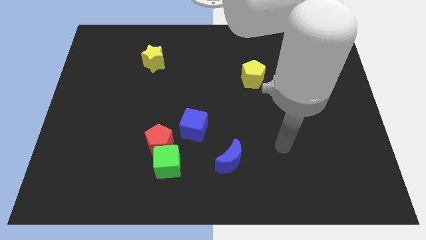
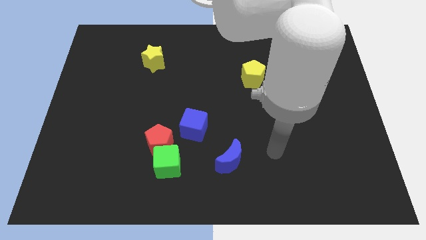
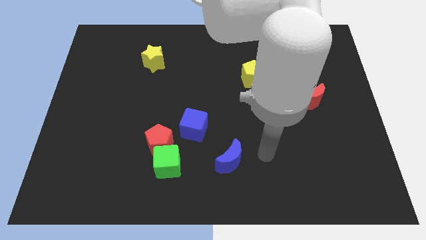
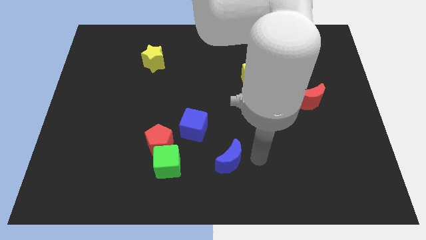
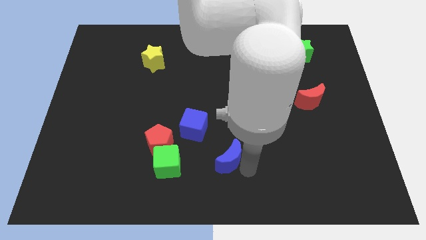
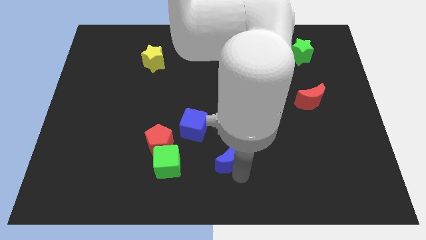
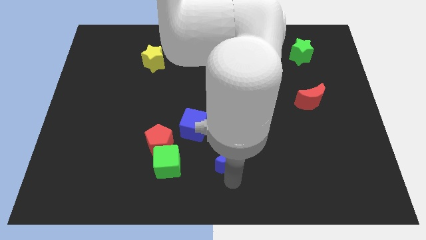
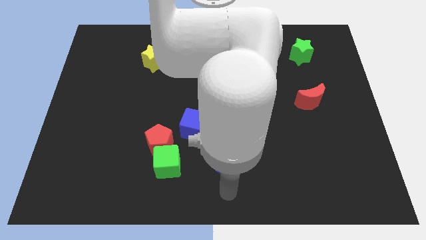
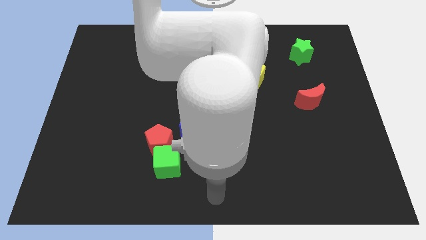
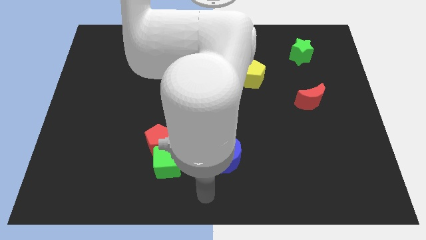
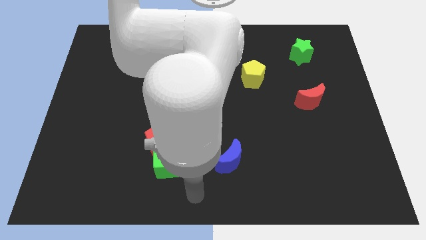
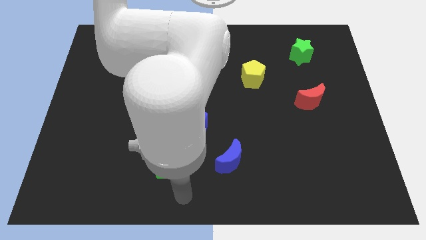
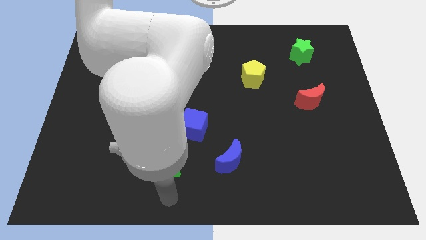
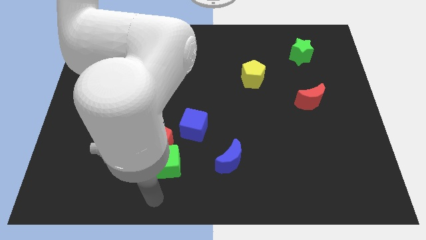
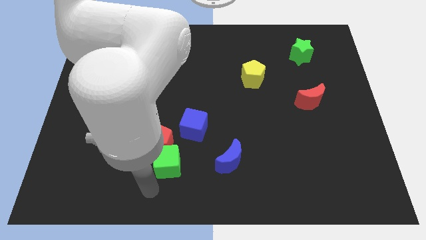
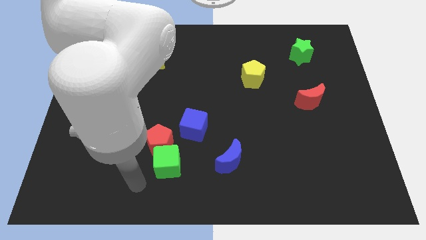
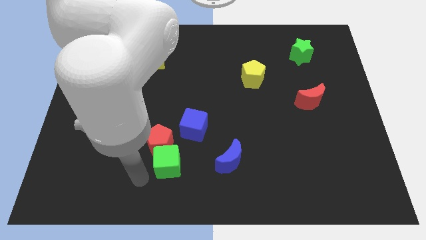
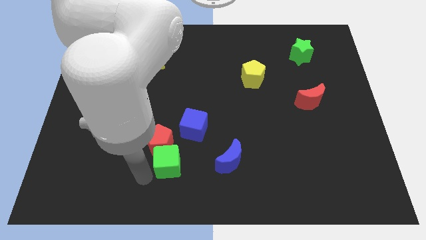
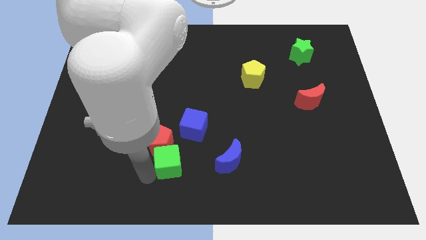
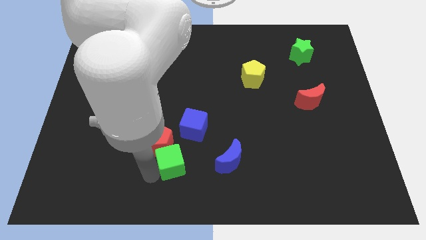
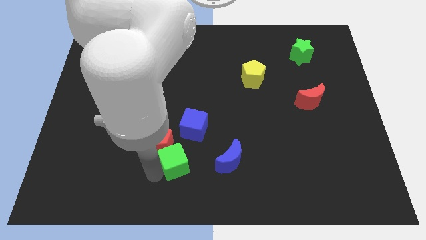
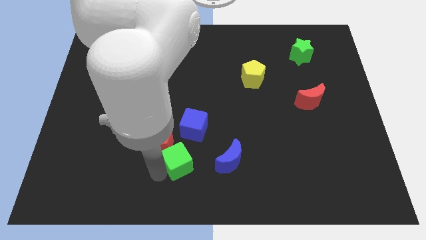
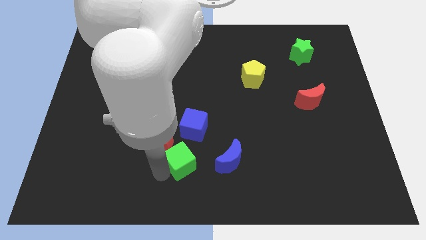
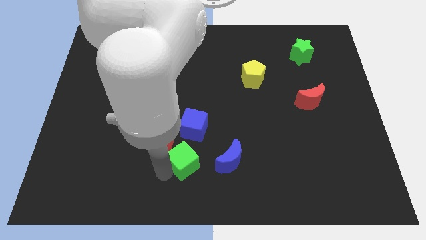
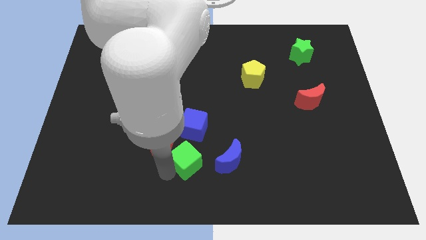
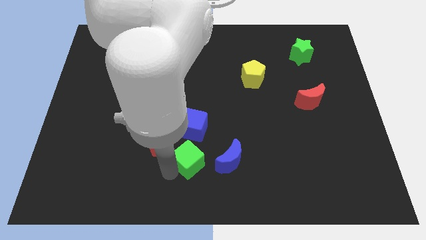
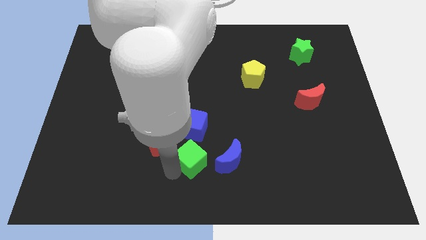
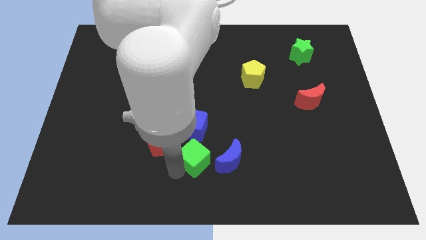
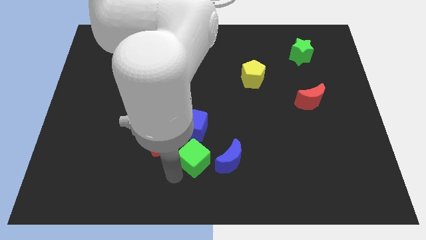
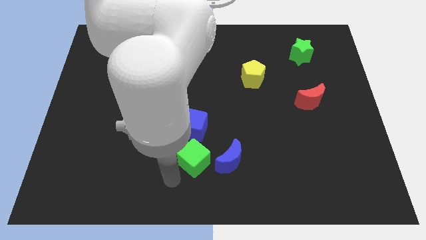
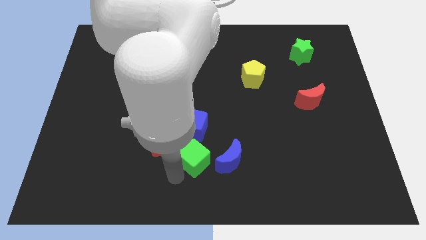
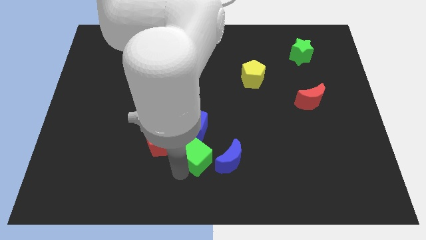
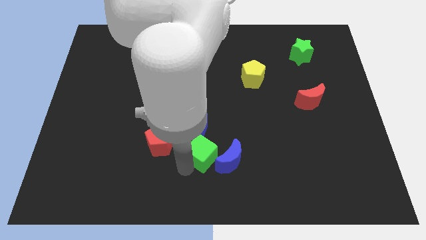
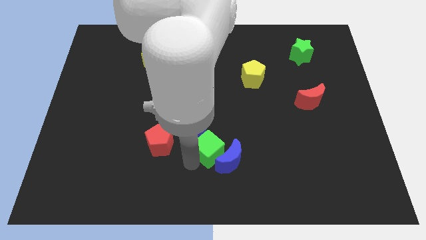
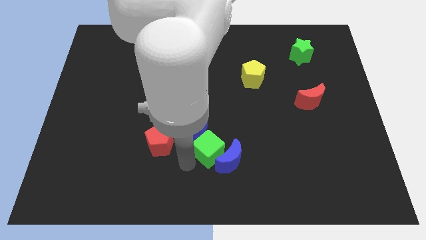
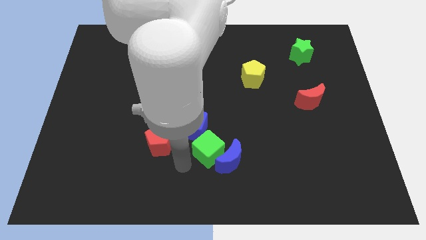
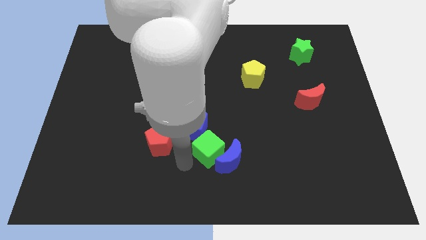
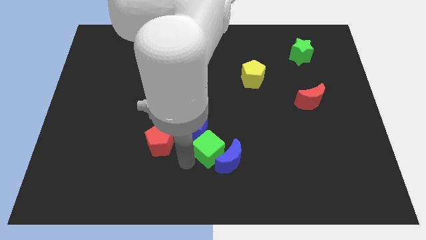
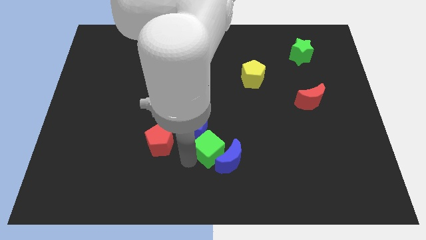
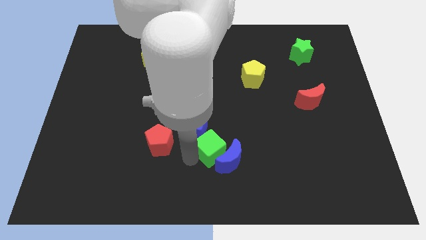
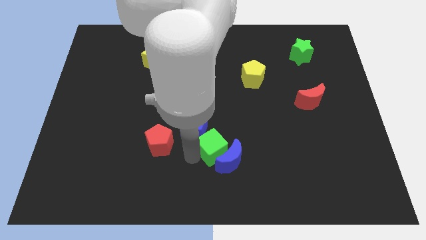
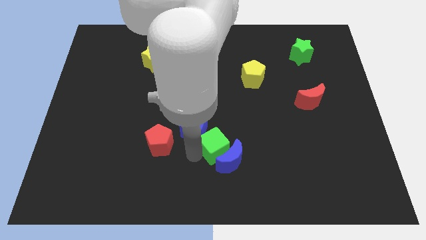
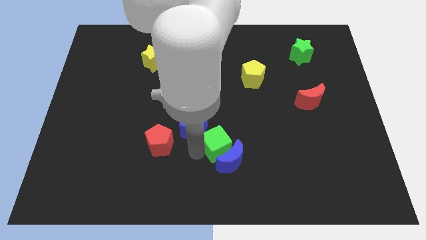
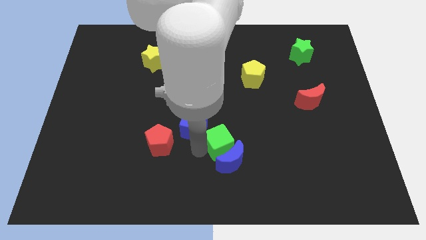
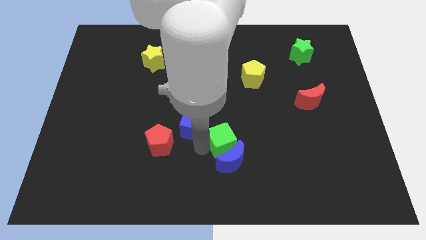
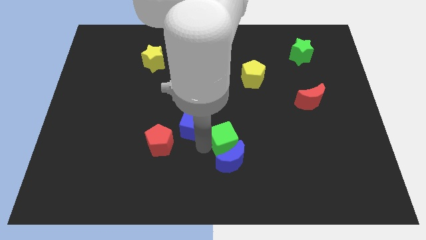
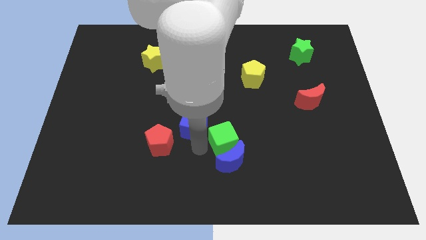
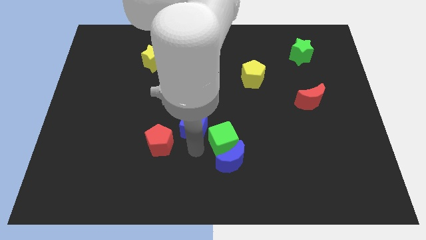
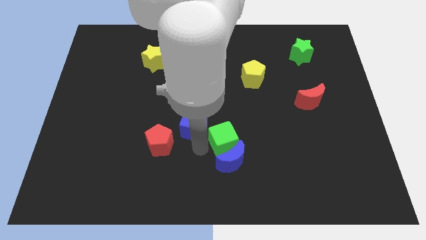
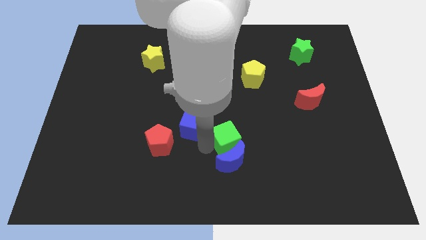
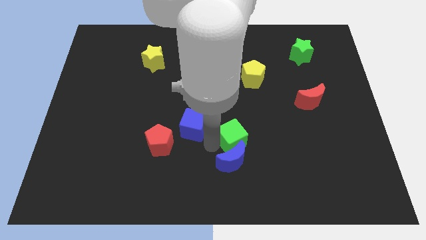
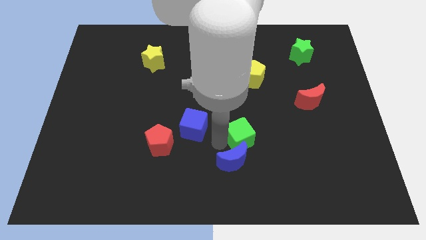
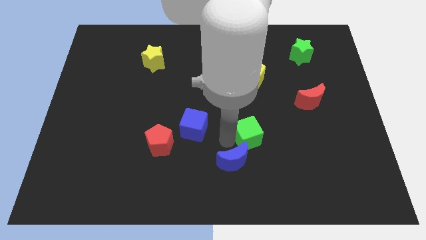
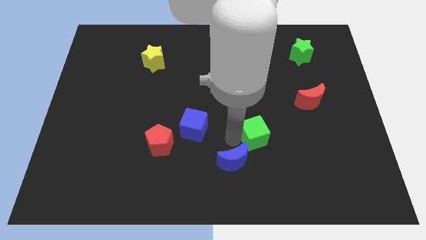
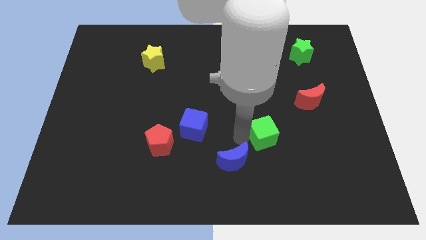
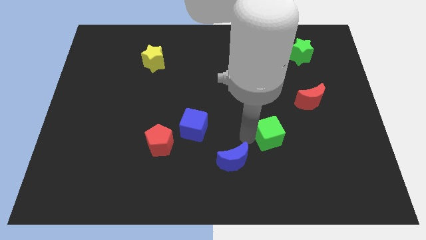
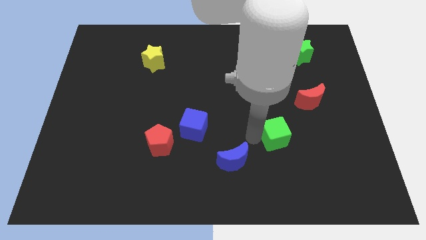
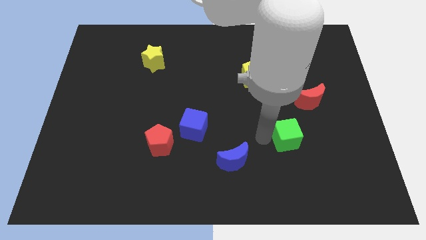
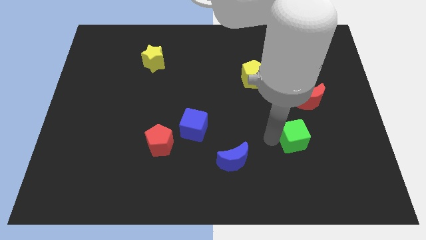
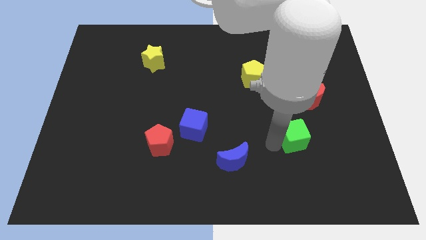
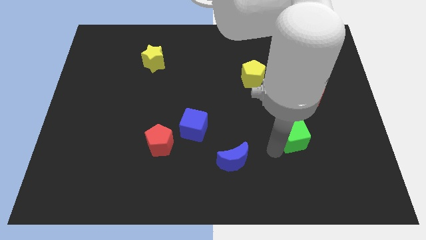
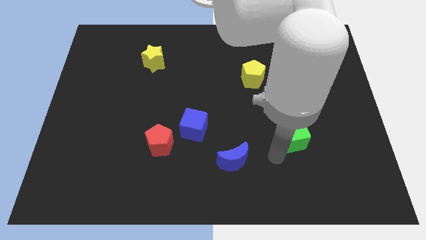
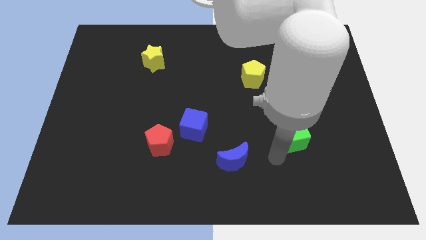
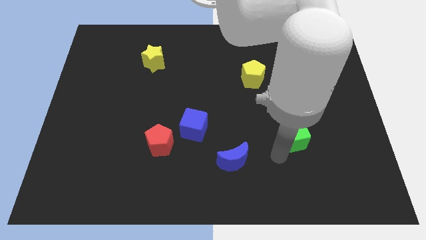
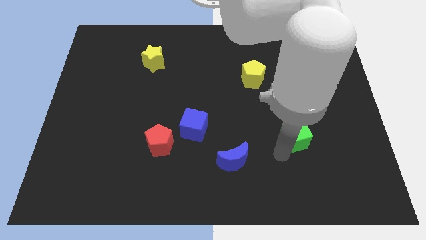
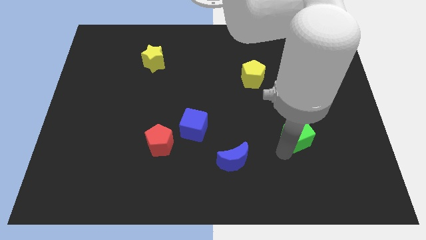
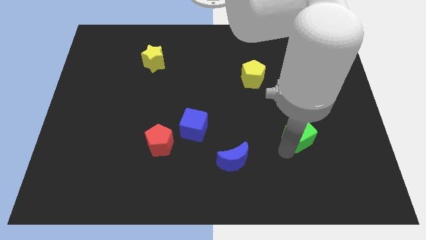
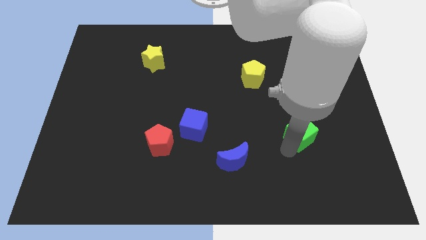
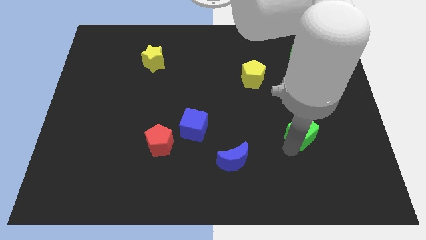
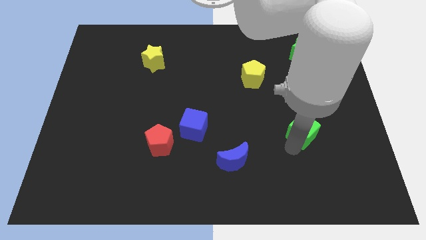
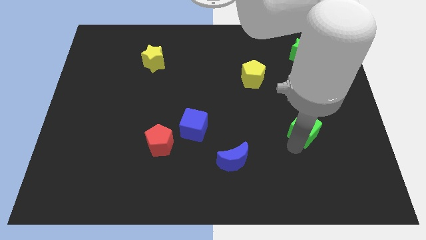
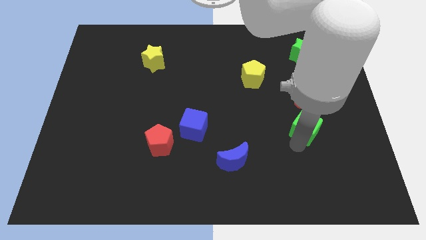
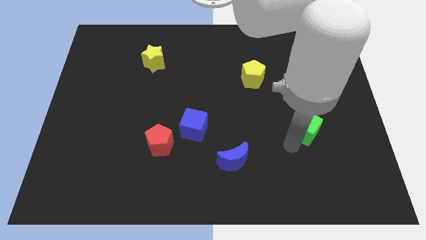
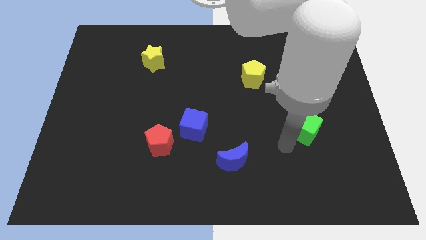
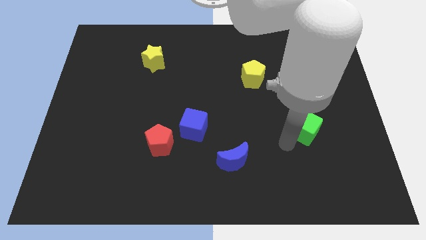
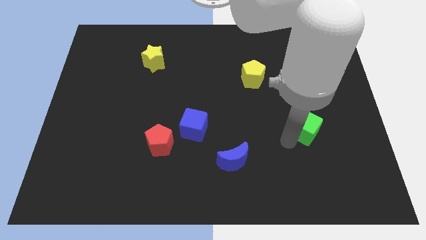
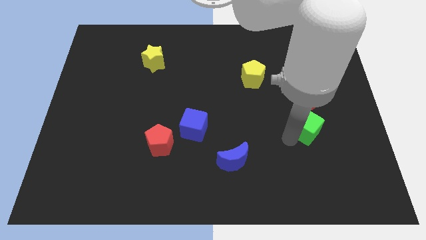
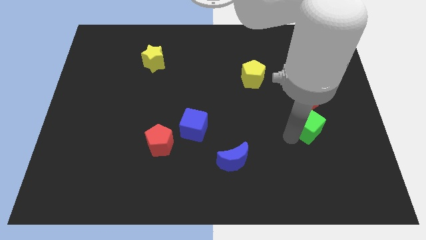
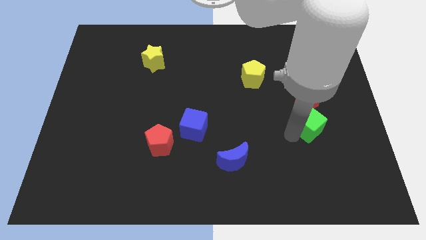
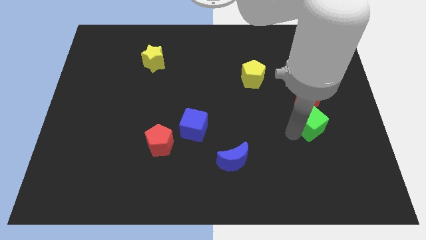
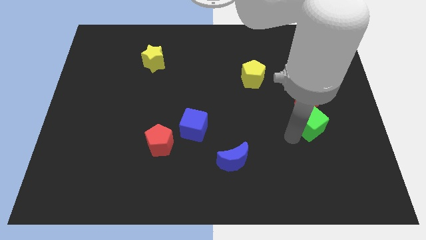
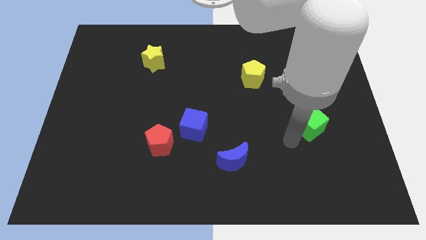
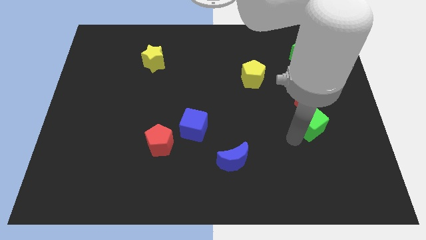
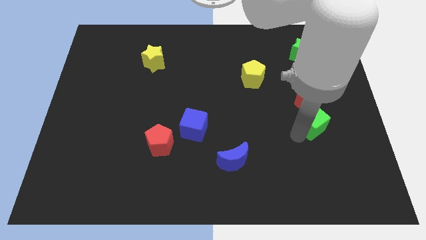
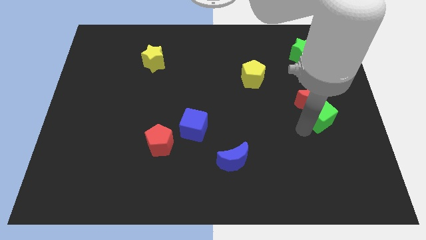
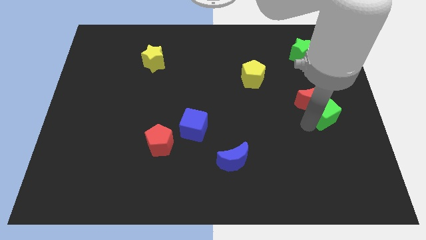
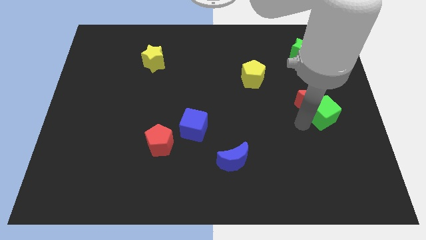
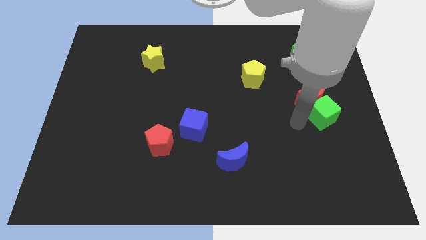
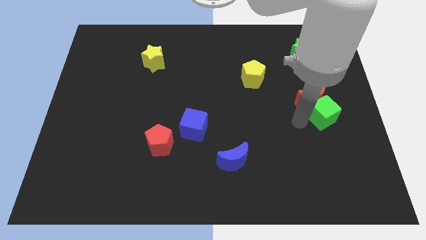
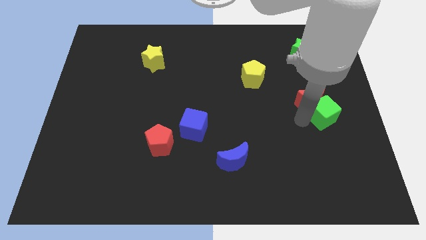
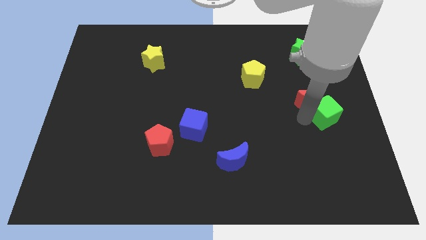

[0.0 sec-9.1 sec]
put the green cube to the right side of the board
